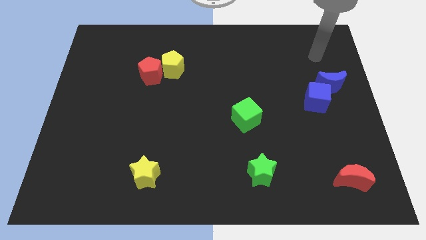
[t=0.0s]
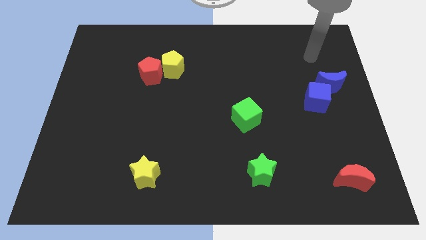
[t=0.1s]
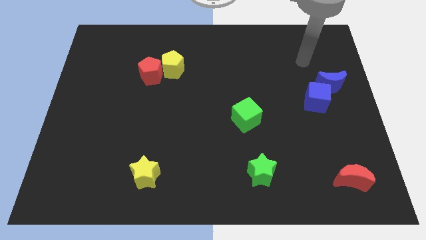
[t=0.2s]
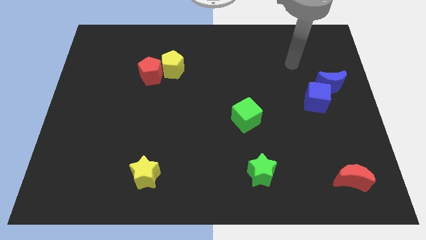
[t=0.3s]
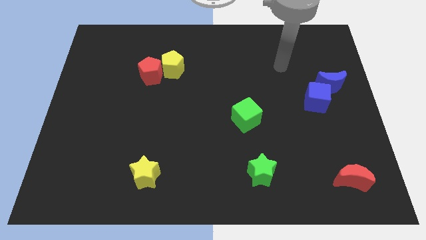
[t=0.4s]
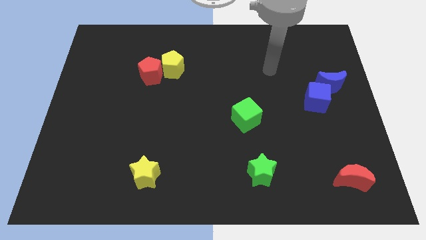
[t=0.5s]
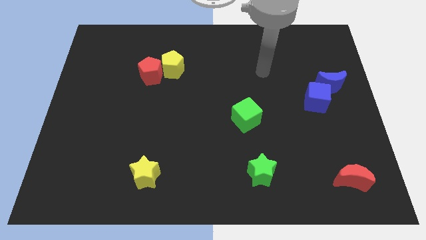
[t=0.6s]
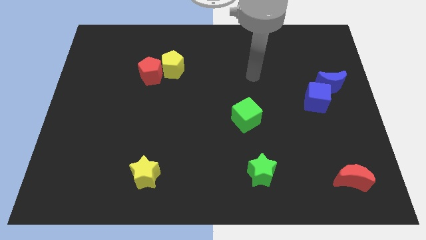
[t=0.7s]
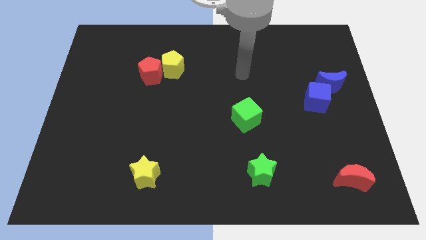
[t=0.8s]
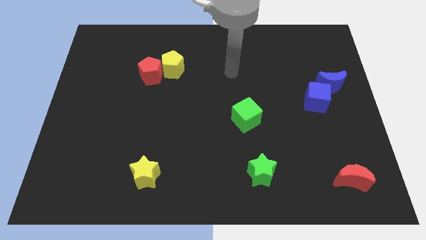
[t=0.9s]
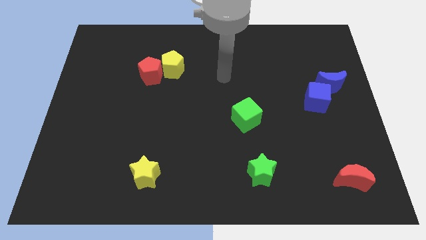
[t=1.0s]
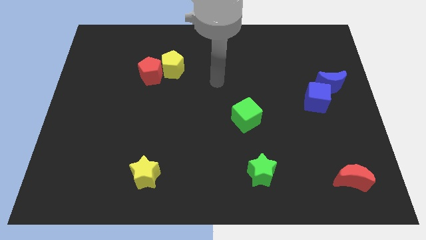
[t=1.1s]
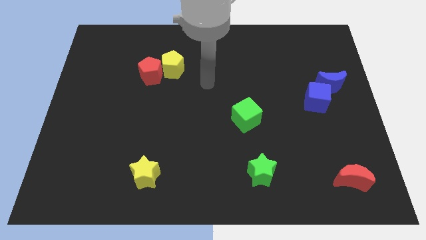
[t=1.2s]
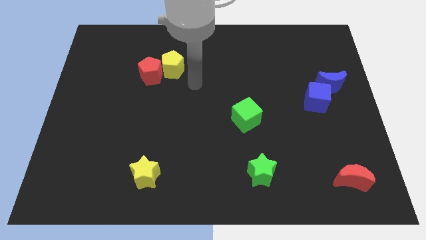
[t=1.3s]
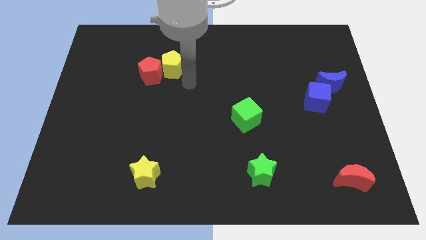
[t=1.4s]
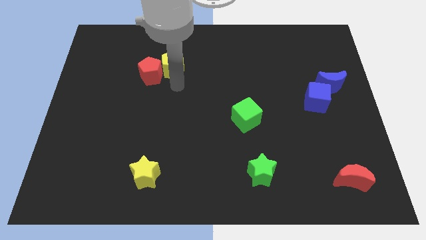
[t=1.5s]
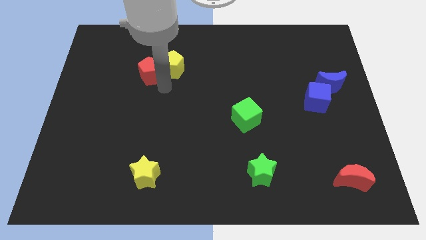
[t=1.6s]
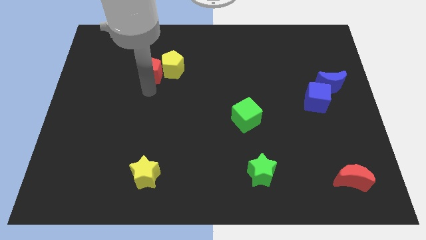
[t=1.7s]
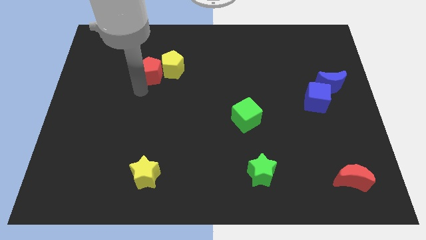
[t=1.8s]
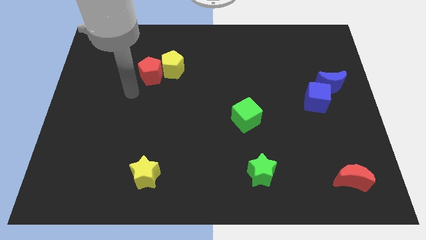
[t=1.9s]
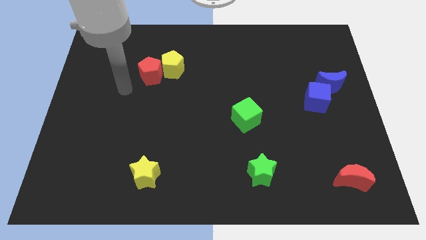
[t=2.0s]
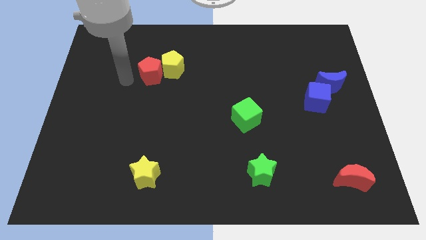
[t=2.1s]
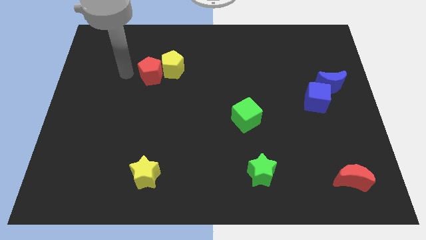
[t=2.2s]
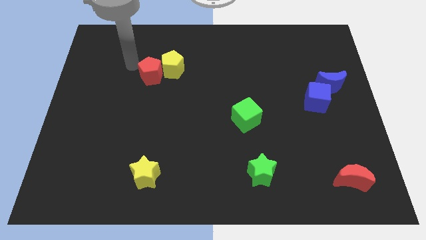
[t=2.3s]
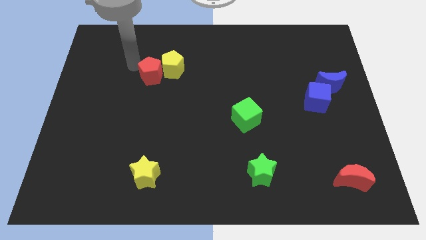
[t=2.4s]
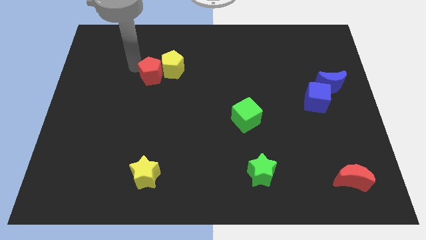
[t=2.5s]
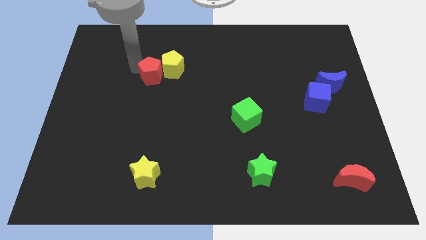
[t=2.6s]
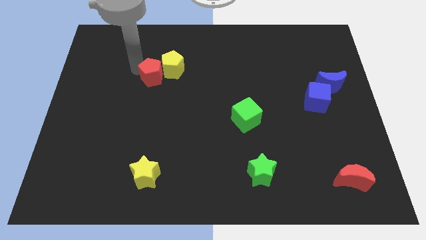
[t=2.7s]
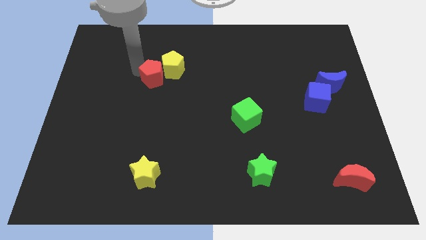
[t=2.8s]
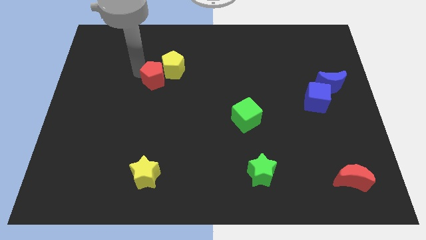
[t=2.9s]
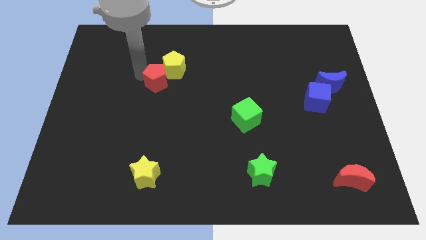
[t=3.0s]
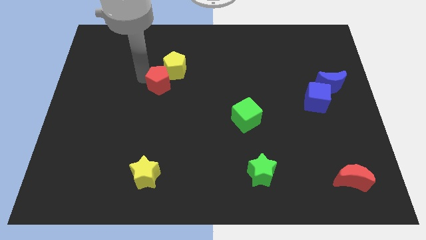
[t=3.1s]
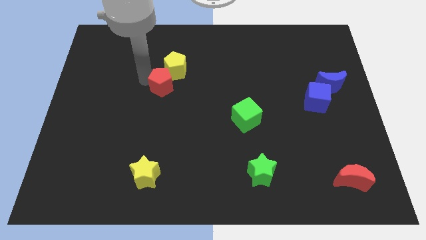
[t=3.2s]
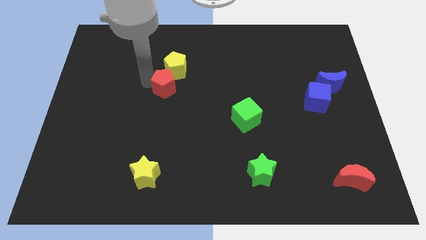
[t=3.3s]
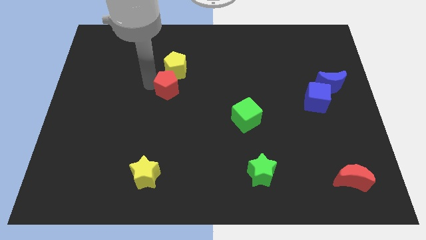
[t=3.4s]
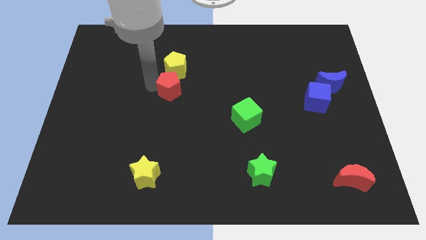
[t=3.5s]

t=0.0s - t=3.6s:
move the red pentagon a little bit downwards and then right

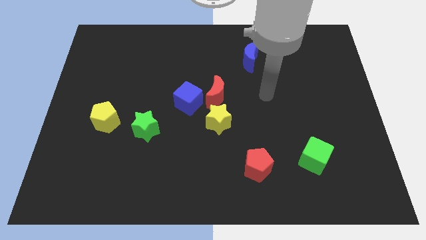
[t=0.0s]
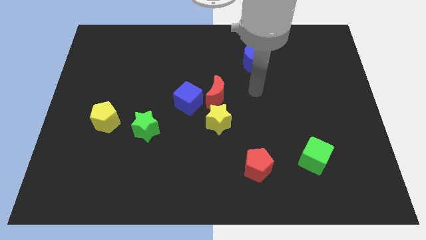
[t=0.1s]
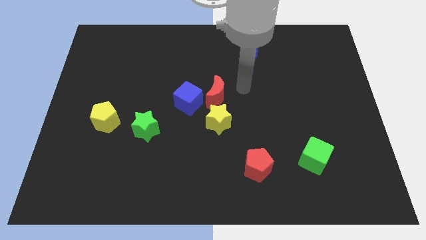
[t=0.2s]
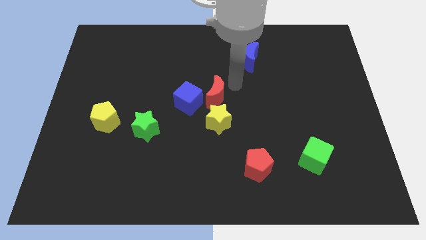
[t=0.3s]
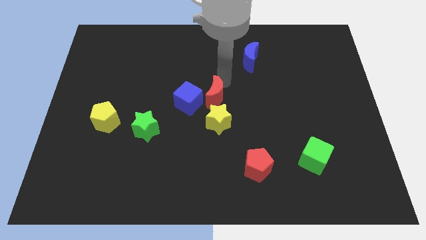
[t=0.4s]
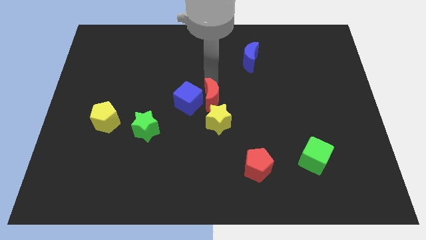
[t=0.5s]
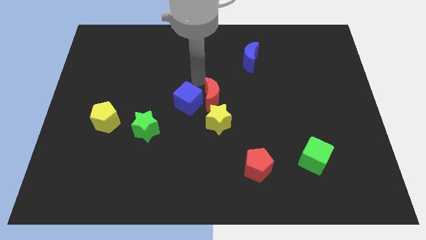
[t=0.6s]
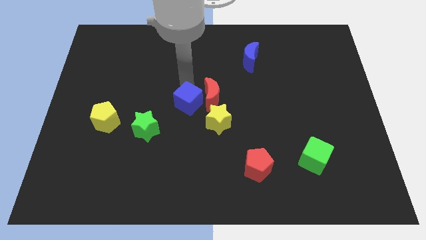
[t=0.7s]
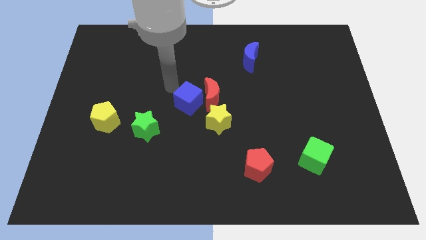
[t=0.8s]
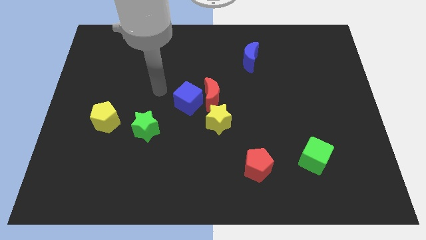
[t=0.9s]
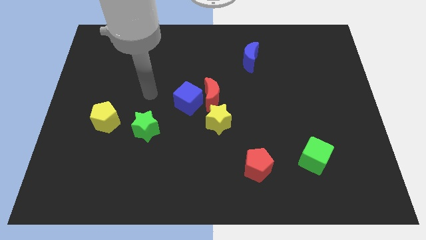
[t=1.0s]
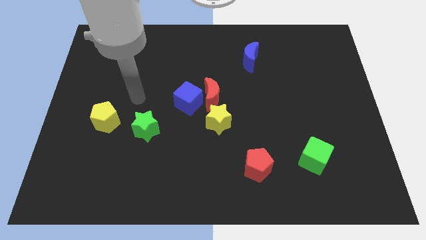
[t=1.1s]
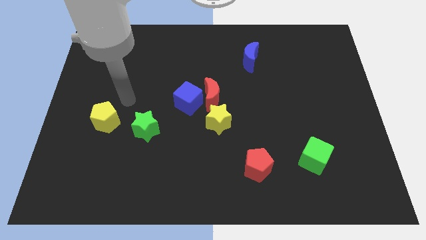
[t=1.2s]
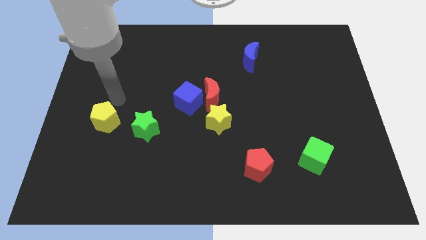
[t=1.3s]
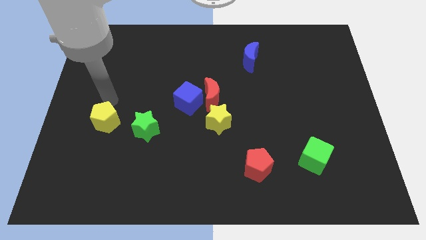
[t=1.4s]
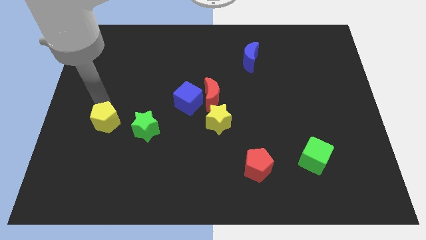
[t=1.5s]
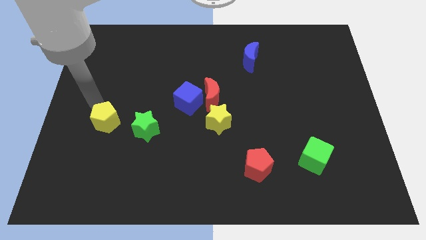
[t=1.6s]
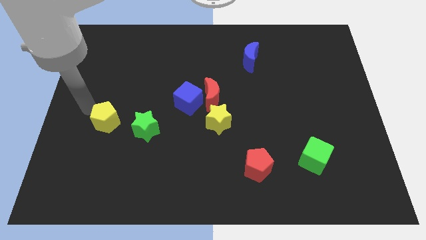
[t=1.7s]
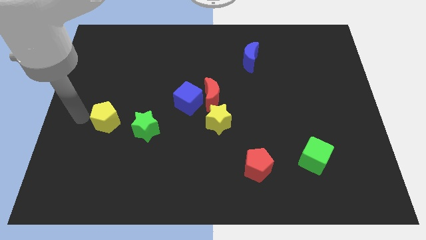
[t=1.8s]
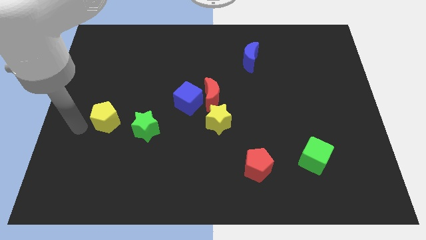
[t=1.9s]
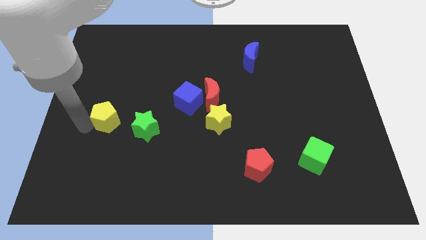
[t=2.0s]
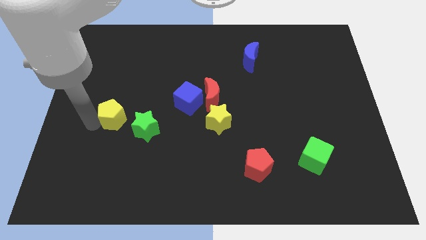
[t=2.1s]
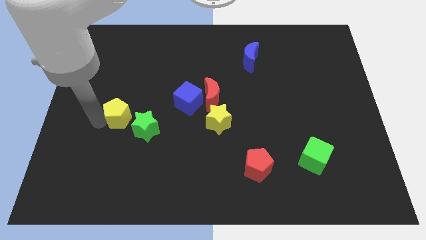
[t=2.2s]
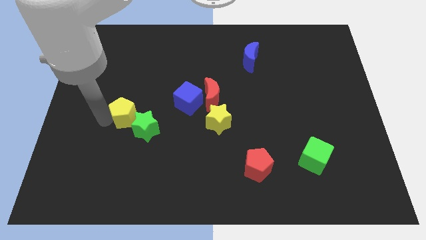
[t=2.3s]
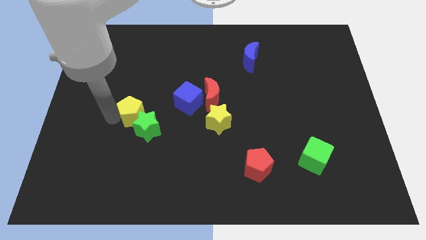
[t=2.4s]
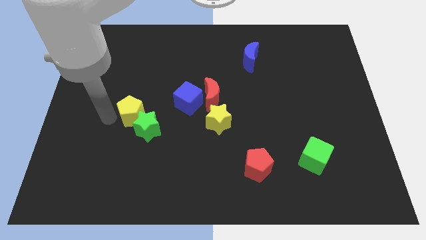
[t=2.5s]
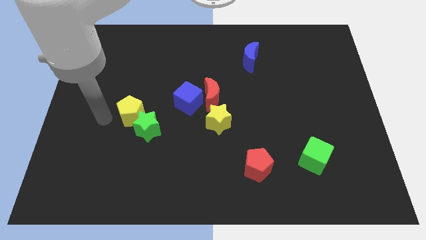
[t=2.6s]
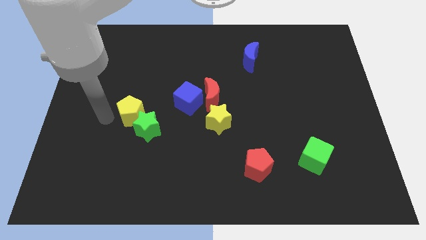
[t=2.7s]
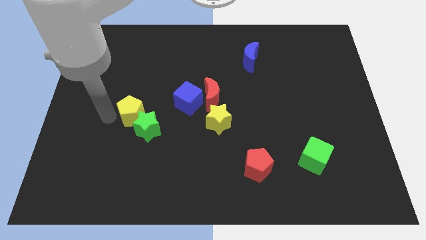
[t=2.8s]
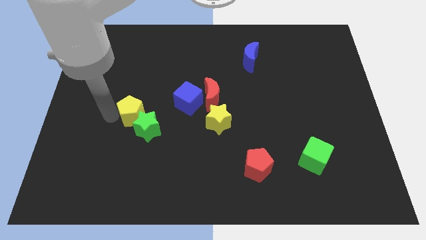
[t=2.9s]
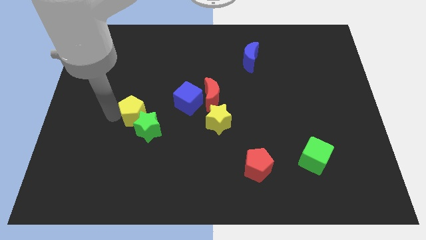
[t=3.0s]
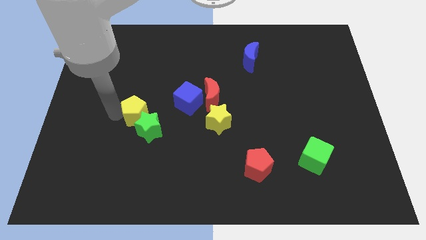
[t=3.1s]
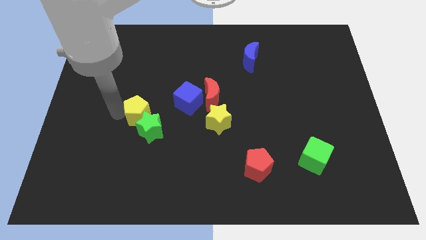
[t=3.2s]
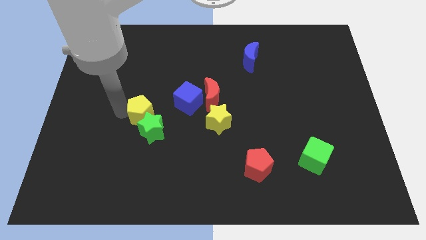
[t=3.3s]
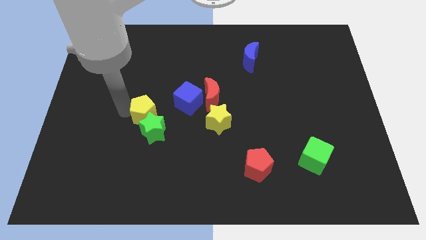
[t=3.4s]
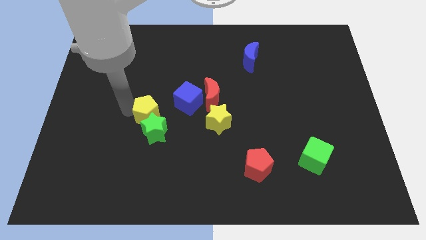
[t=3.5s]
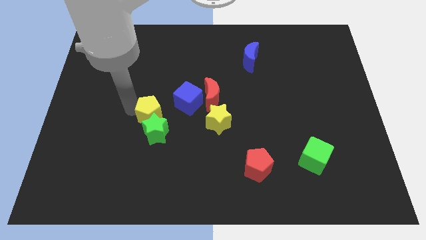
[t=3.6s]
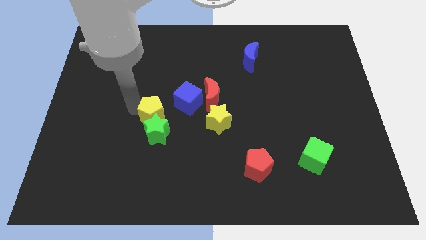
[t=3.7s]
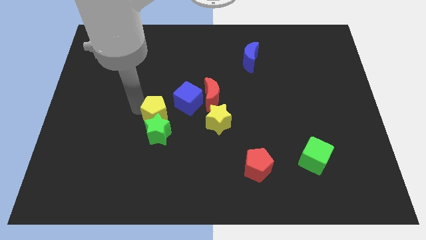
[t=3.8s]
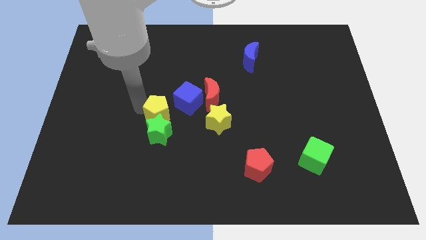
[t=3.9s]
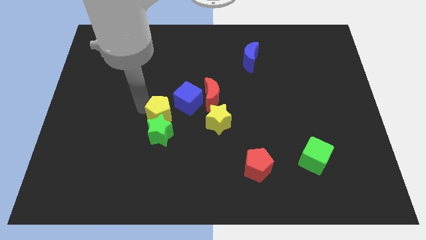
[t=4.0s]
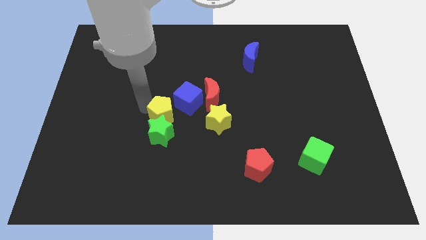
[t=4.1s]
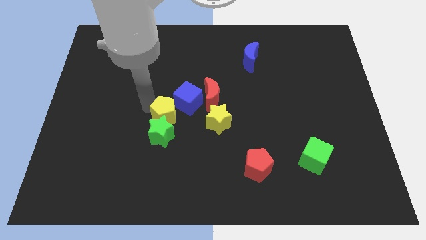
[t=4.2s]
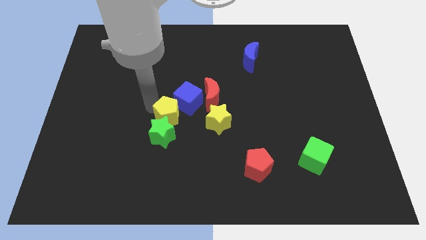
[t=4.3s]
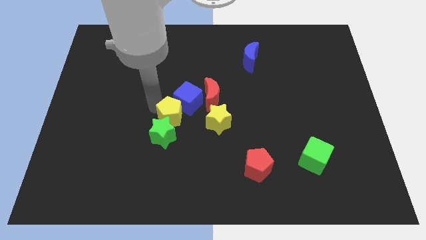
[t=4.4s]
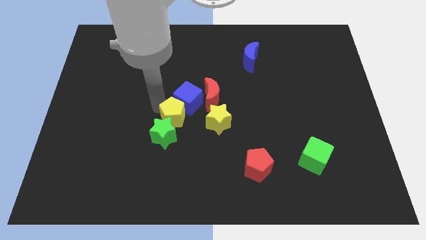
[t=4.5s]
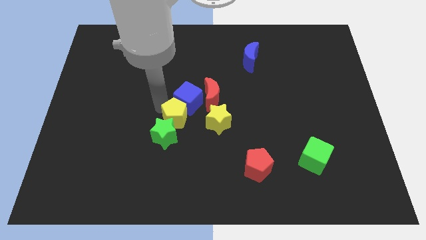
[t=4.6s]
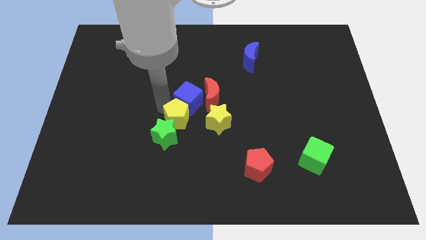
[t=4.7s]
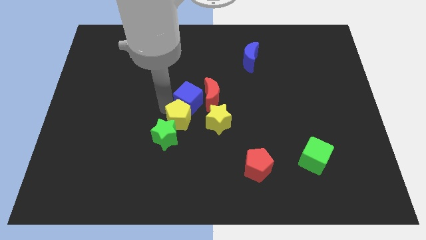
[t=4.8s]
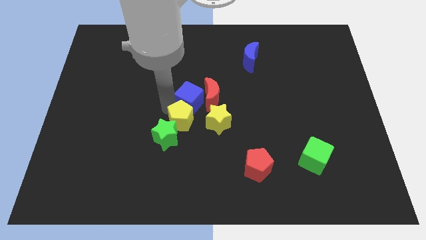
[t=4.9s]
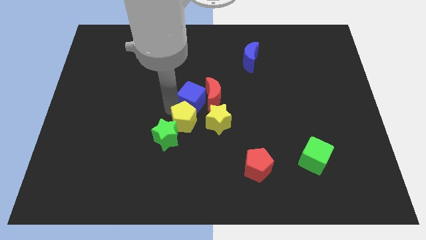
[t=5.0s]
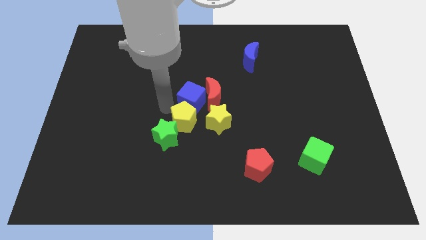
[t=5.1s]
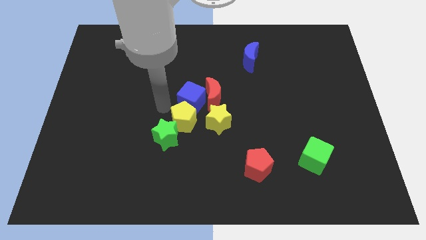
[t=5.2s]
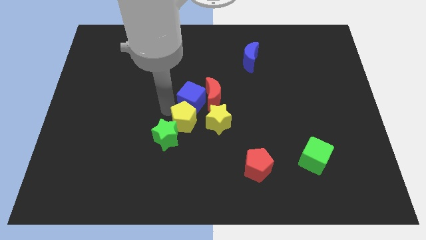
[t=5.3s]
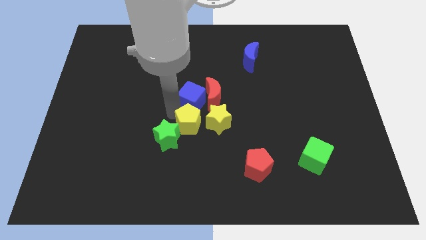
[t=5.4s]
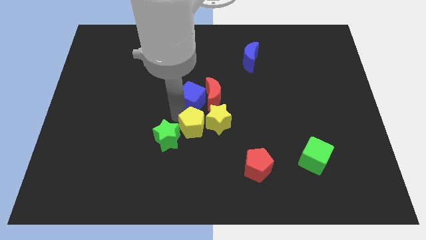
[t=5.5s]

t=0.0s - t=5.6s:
move the yellow pentagon right
